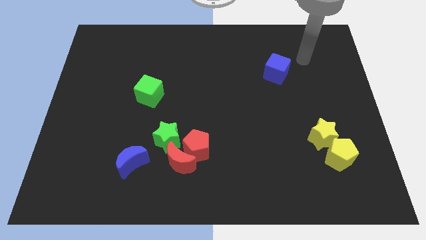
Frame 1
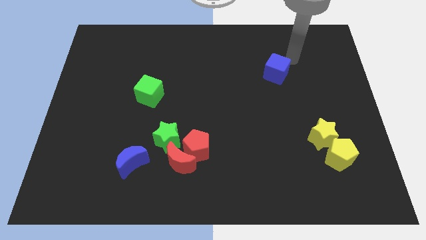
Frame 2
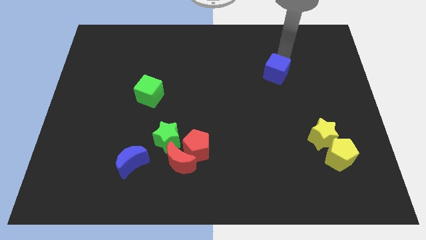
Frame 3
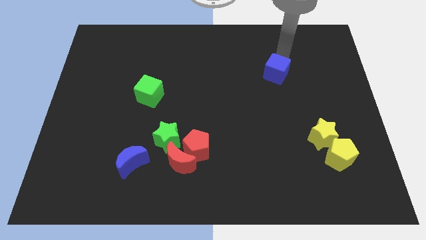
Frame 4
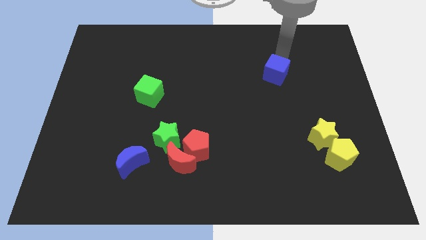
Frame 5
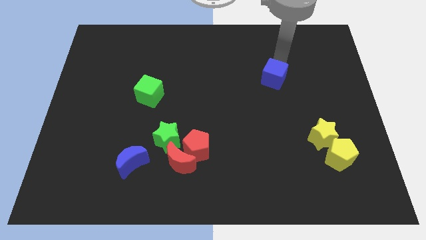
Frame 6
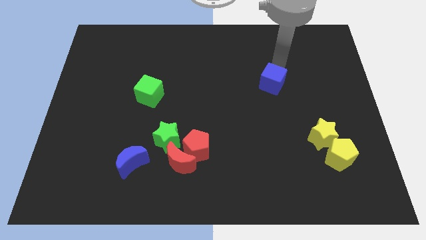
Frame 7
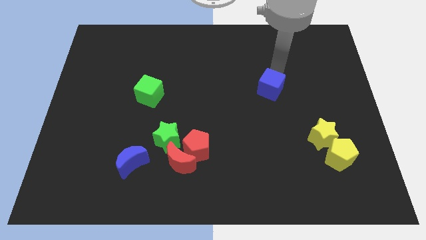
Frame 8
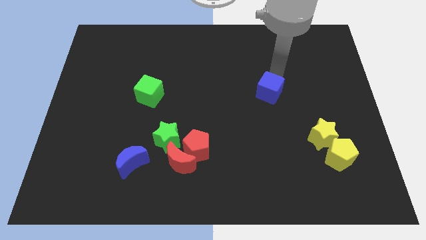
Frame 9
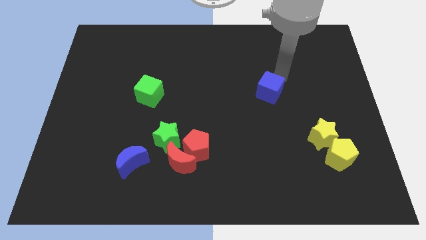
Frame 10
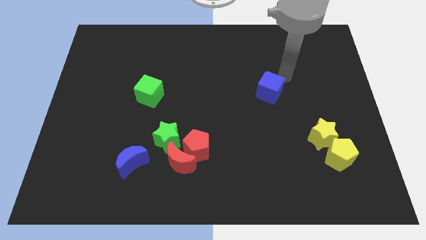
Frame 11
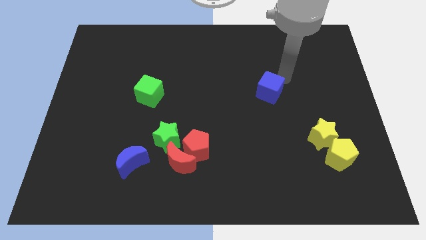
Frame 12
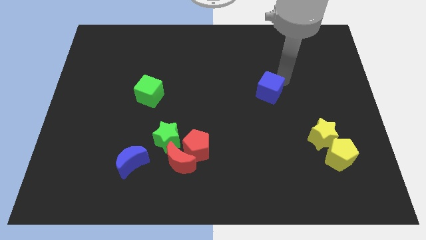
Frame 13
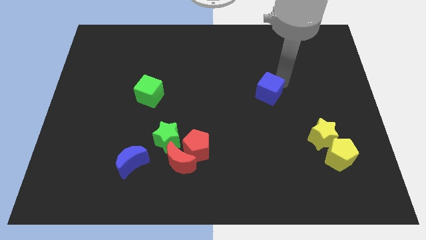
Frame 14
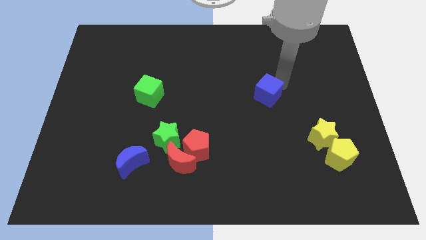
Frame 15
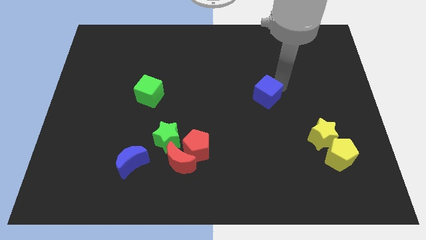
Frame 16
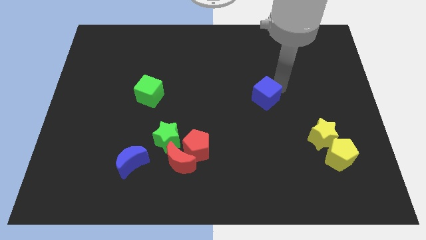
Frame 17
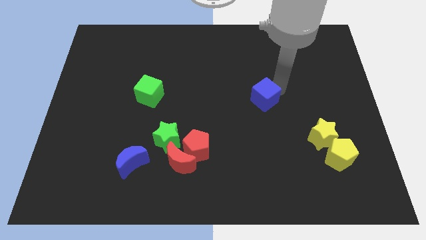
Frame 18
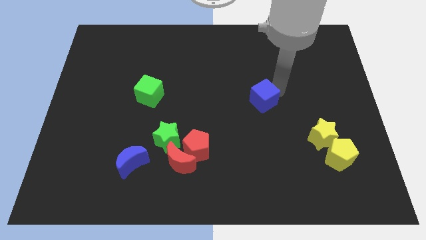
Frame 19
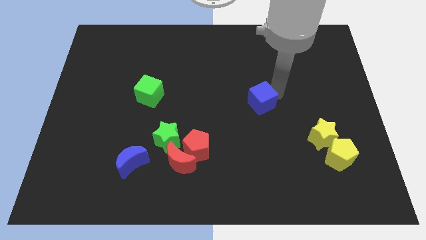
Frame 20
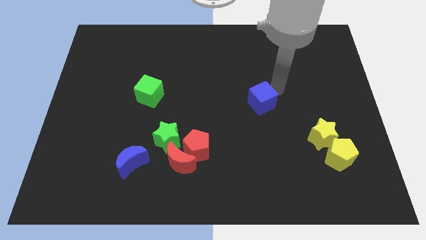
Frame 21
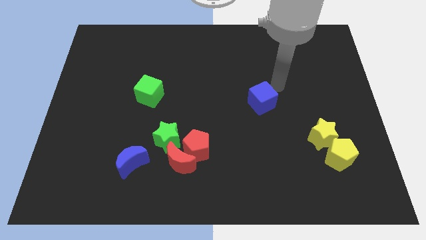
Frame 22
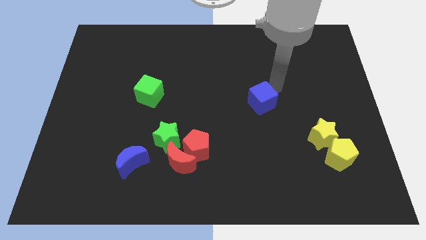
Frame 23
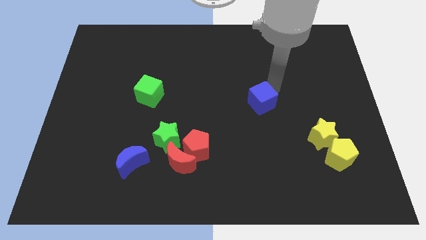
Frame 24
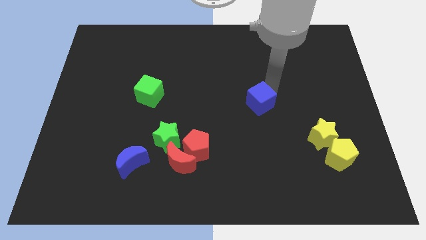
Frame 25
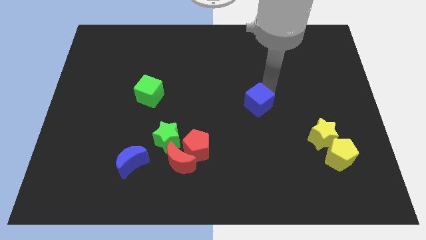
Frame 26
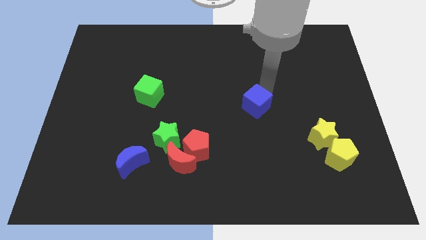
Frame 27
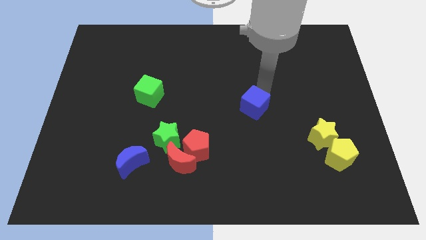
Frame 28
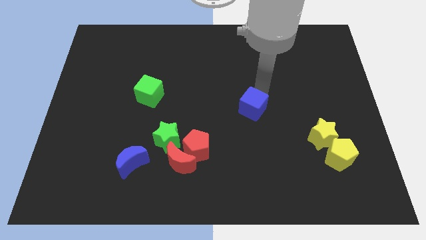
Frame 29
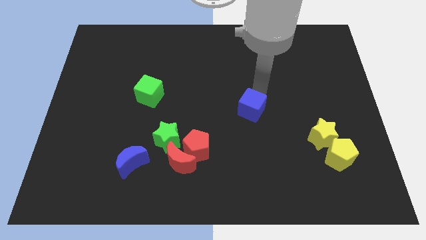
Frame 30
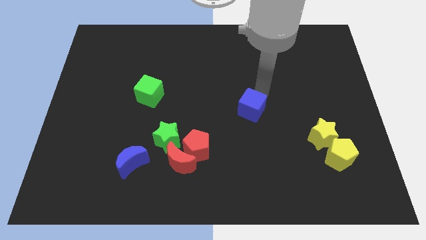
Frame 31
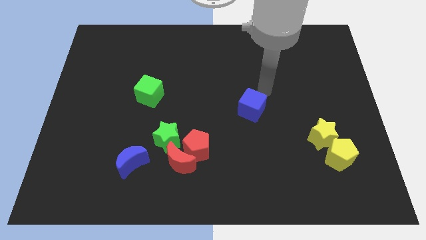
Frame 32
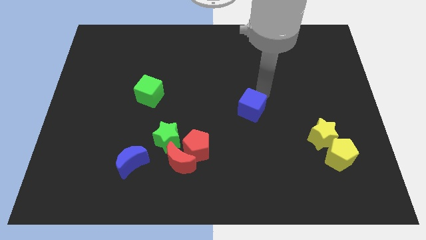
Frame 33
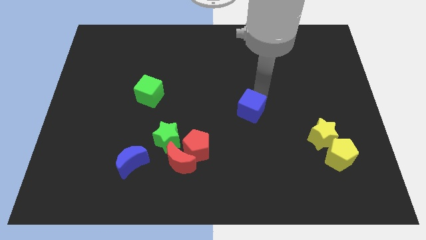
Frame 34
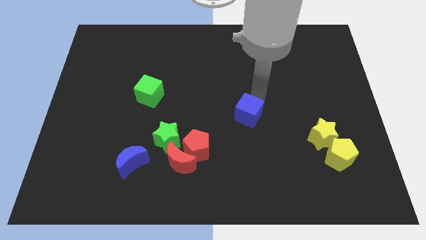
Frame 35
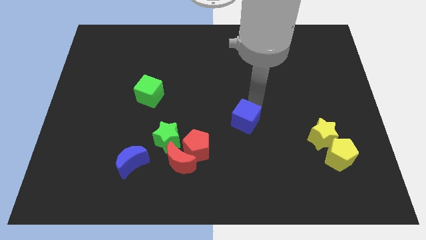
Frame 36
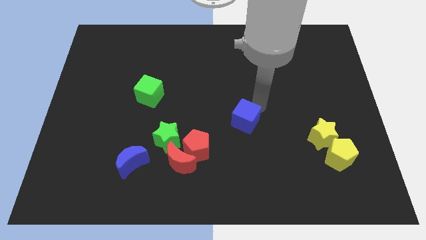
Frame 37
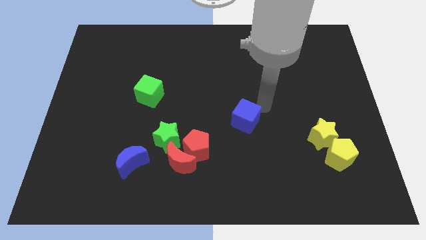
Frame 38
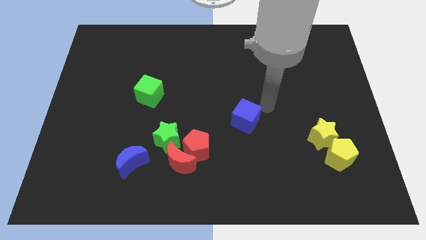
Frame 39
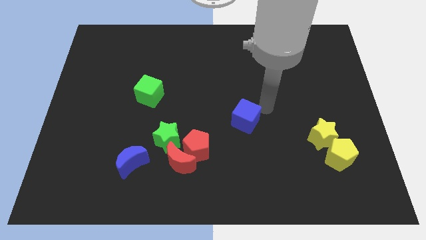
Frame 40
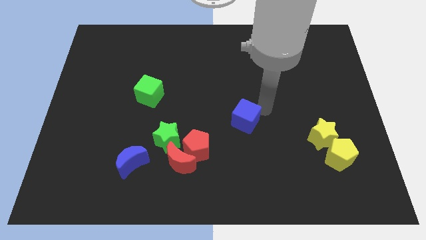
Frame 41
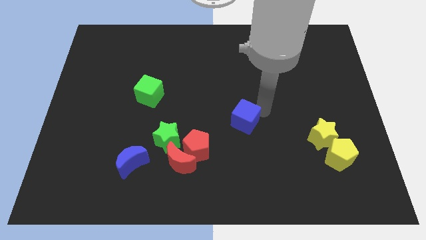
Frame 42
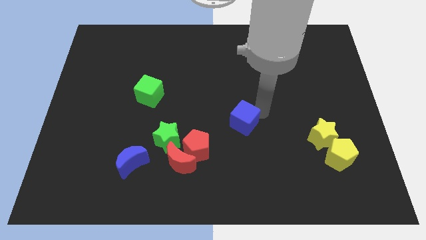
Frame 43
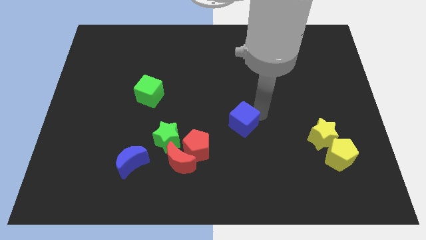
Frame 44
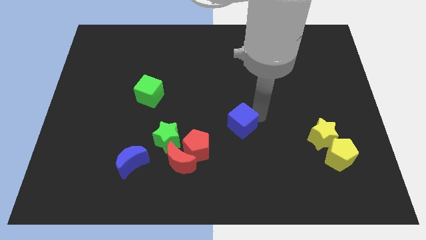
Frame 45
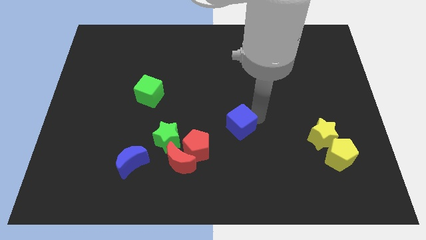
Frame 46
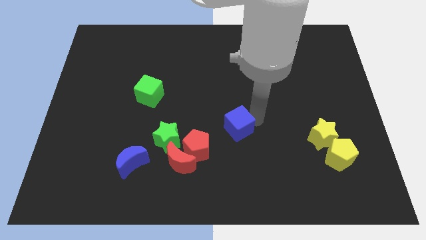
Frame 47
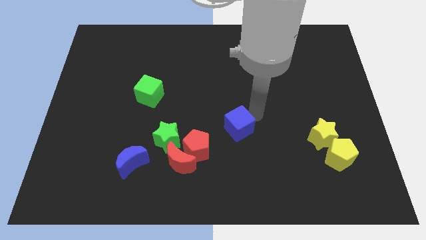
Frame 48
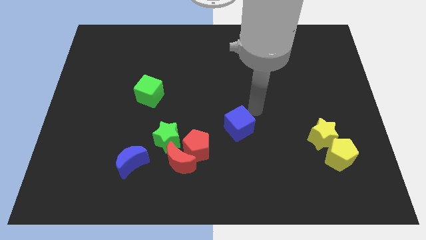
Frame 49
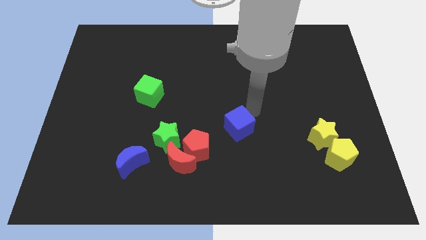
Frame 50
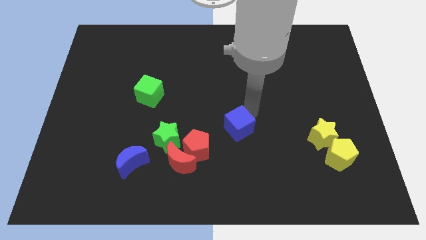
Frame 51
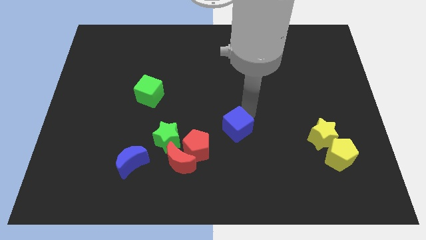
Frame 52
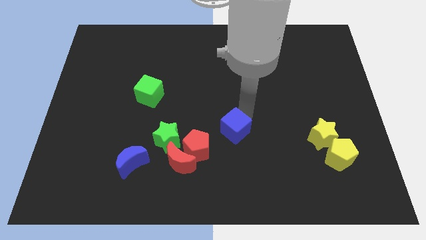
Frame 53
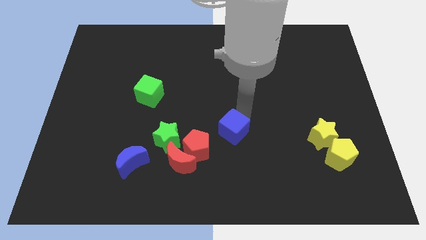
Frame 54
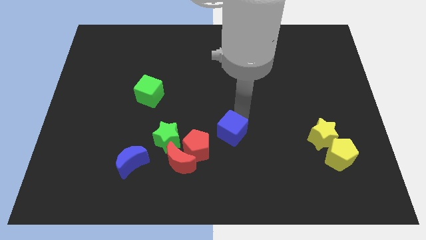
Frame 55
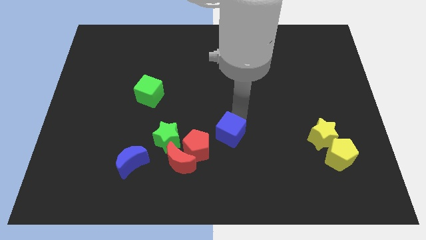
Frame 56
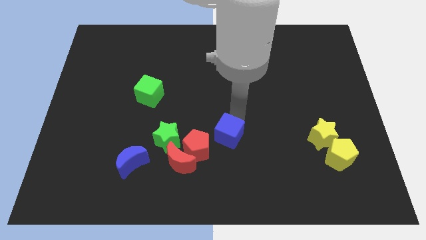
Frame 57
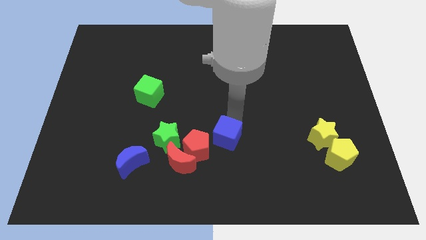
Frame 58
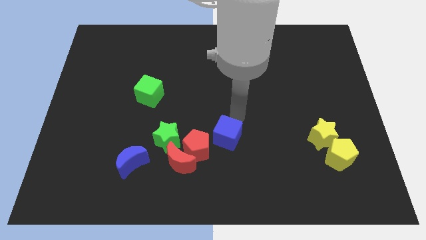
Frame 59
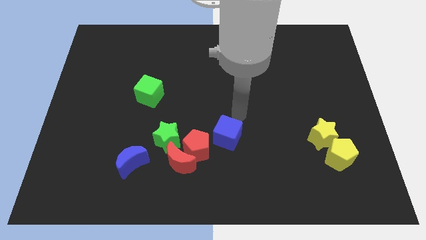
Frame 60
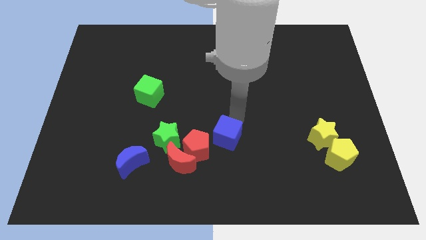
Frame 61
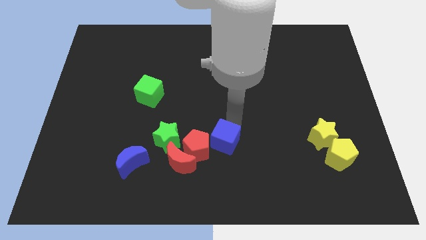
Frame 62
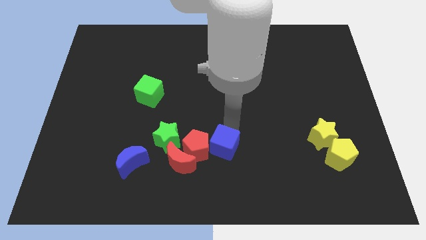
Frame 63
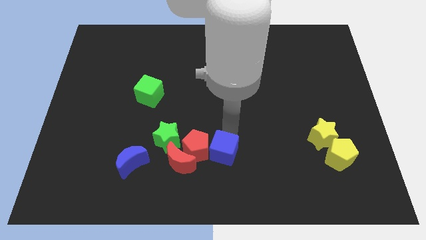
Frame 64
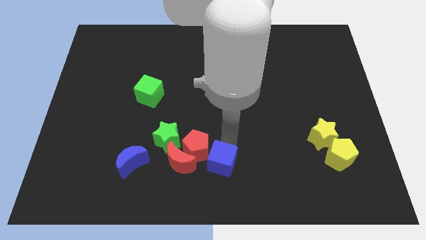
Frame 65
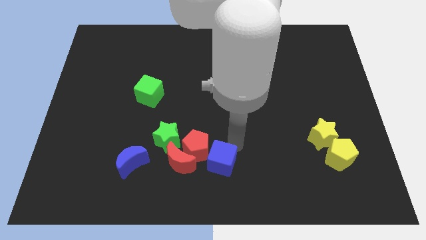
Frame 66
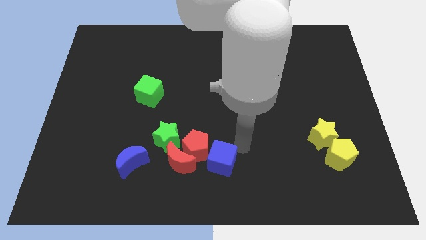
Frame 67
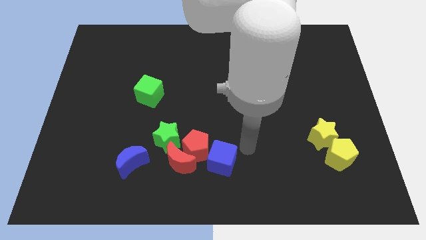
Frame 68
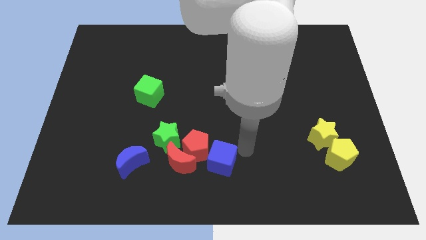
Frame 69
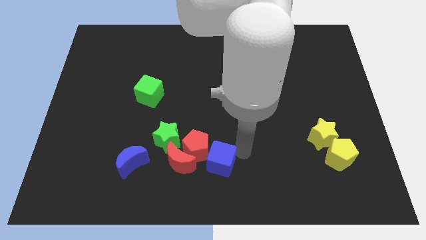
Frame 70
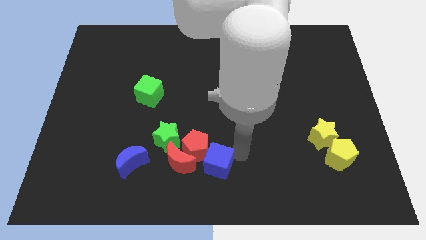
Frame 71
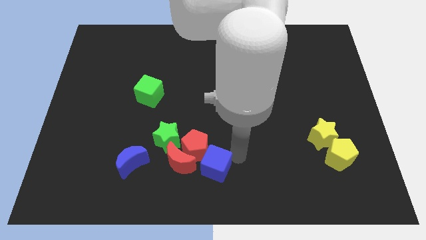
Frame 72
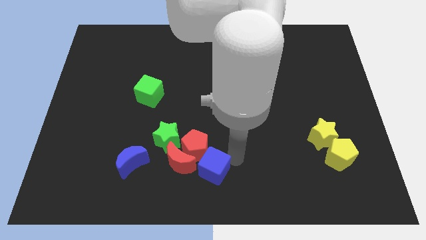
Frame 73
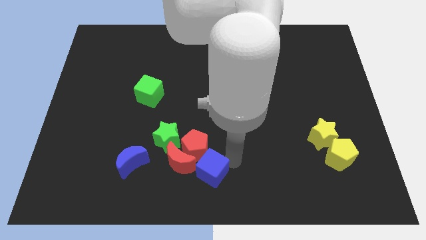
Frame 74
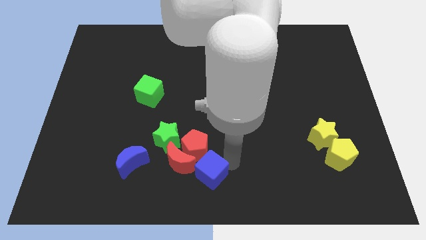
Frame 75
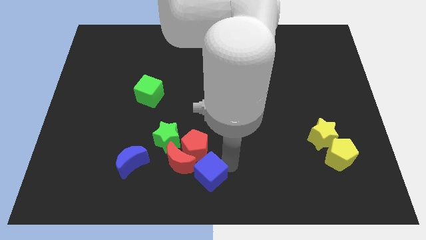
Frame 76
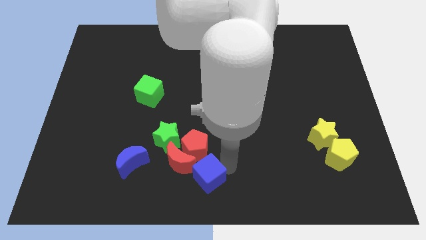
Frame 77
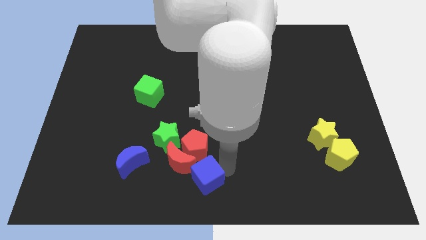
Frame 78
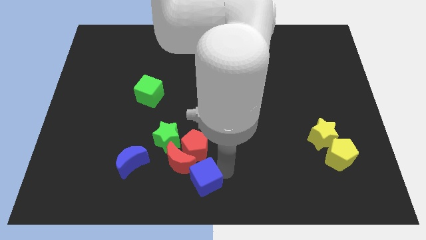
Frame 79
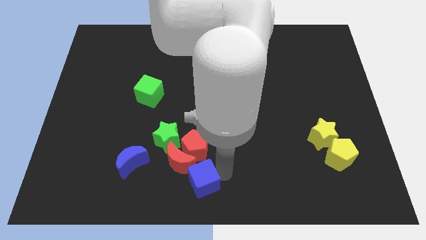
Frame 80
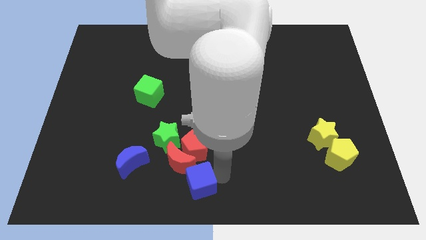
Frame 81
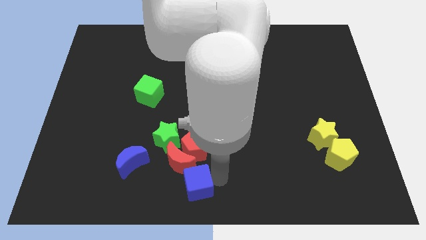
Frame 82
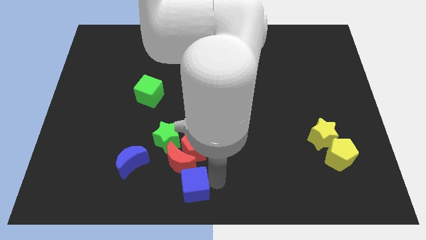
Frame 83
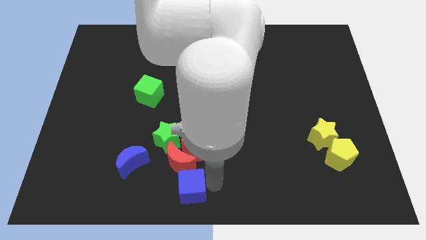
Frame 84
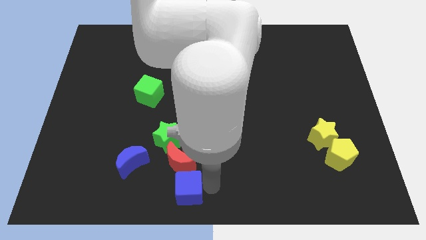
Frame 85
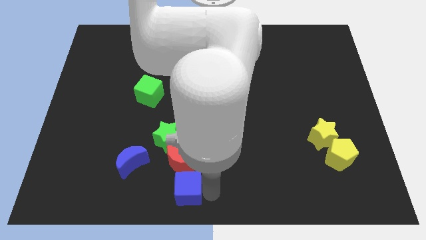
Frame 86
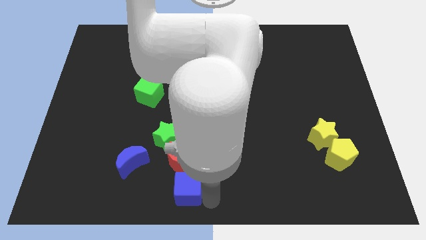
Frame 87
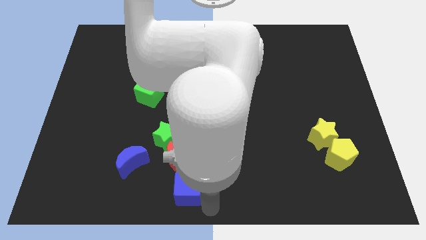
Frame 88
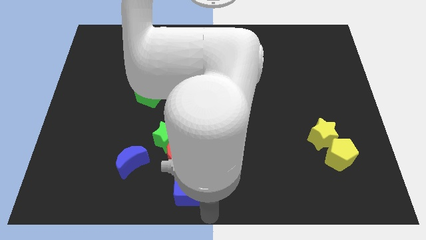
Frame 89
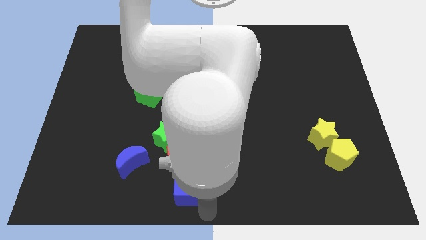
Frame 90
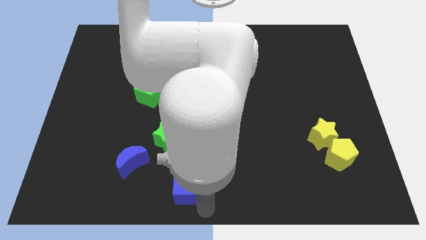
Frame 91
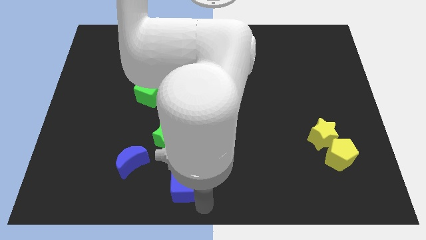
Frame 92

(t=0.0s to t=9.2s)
move the blue cube diagonally down and to the left of the red pentagon
